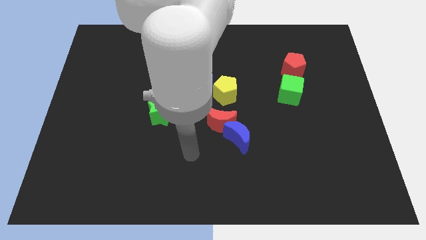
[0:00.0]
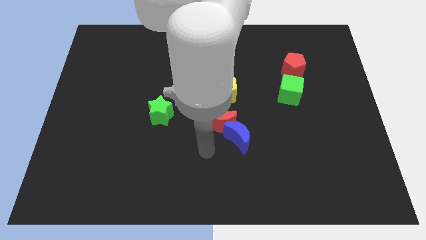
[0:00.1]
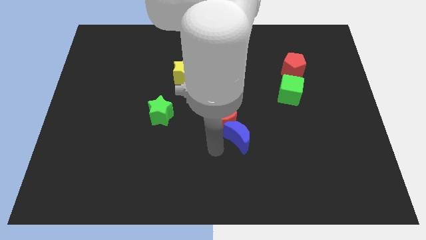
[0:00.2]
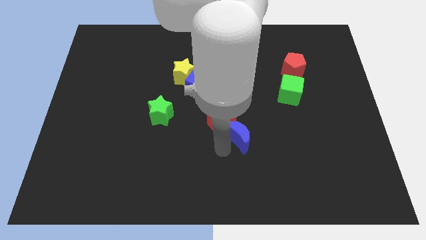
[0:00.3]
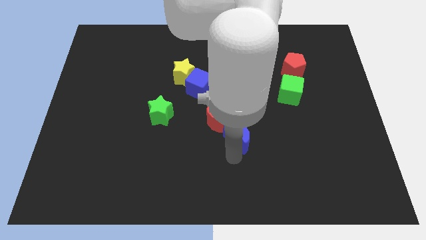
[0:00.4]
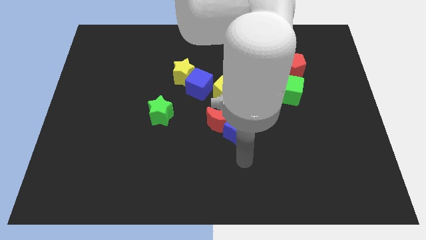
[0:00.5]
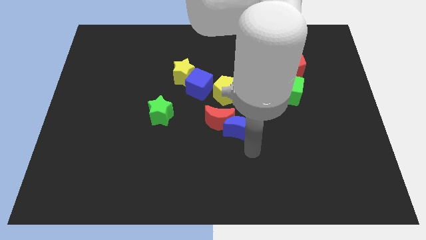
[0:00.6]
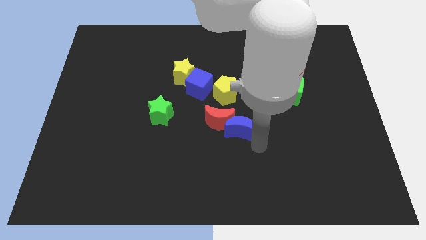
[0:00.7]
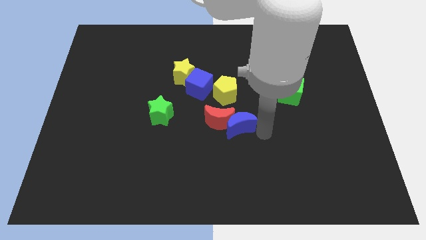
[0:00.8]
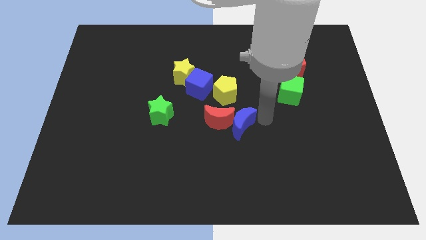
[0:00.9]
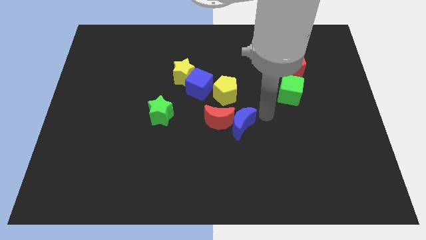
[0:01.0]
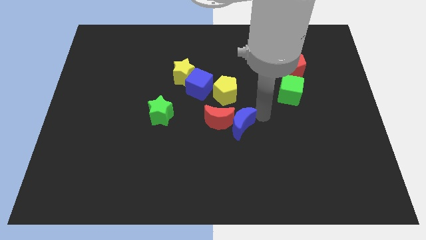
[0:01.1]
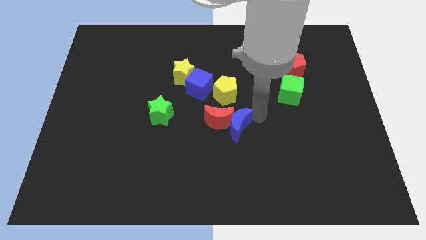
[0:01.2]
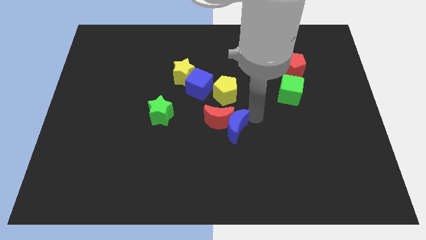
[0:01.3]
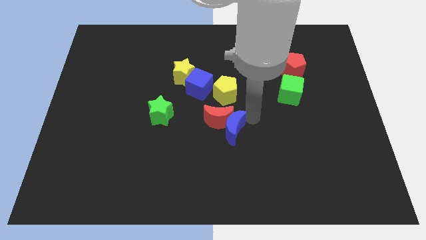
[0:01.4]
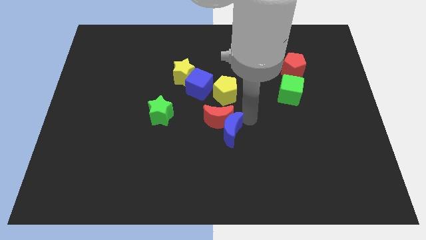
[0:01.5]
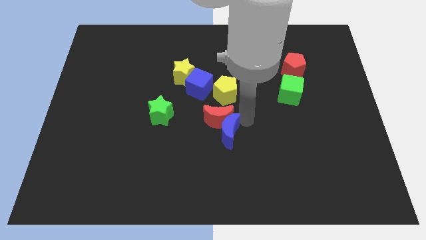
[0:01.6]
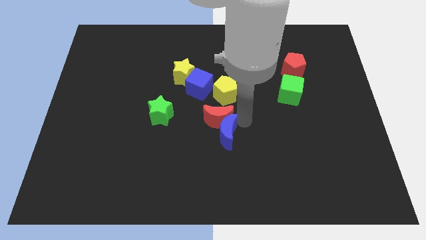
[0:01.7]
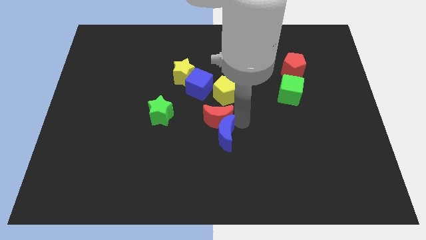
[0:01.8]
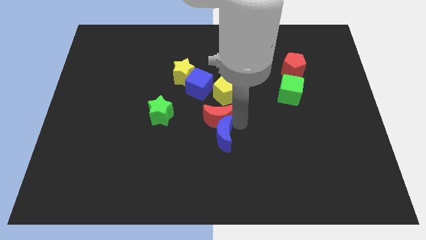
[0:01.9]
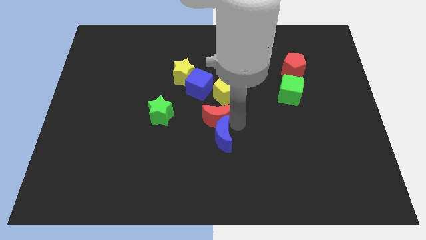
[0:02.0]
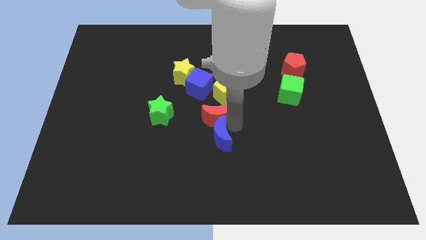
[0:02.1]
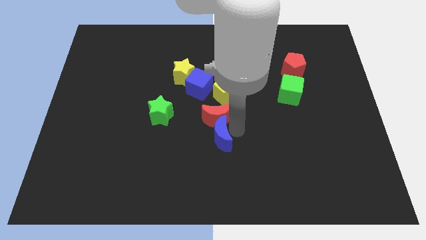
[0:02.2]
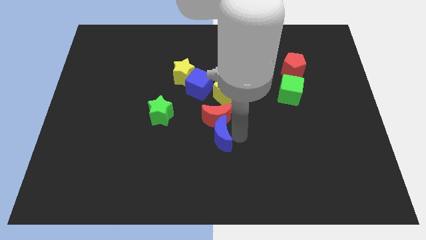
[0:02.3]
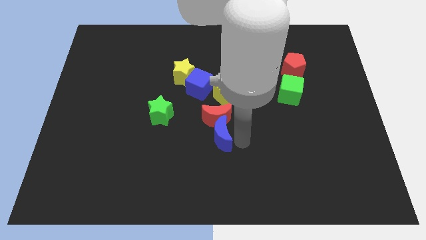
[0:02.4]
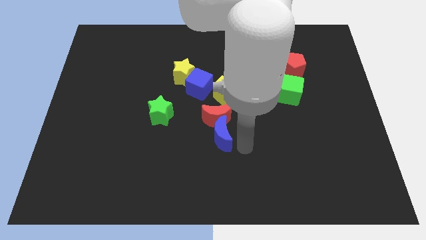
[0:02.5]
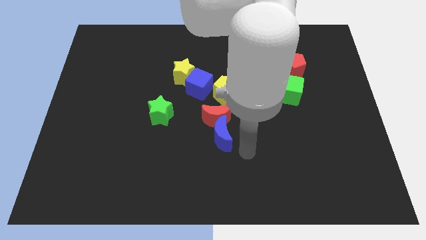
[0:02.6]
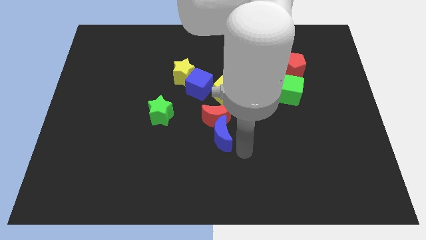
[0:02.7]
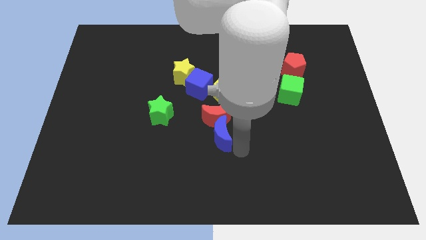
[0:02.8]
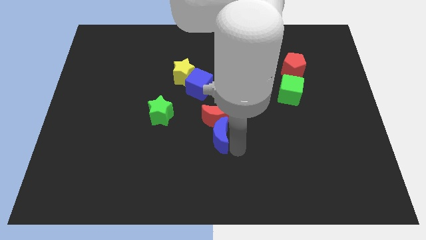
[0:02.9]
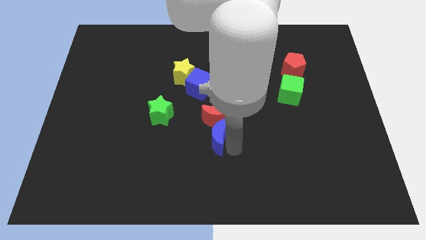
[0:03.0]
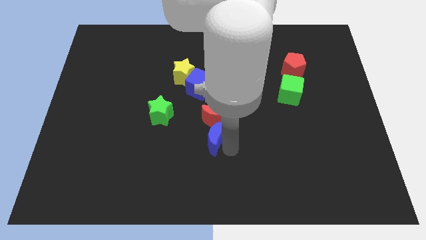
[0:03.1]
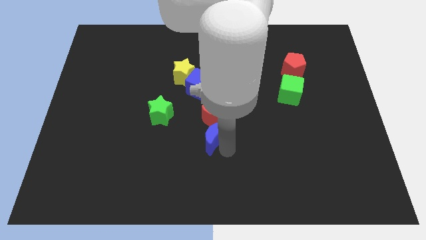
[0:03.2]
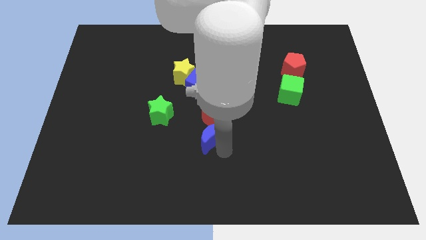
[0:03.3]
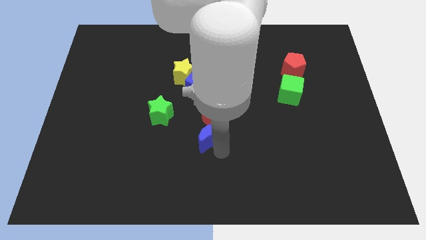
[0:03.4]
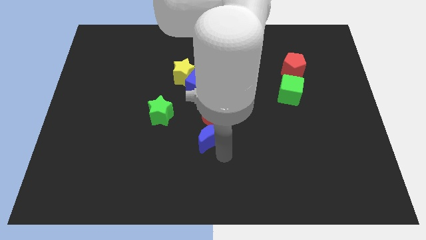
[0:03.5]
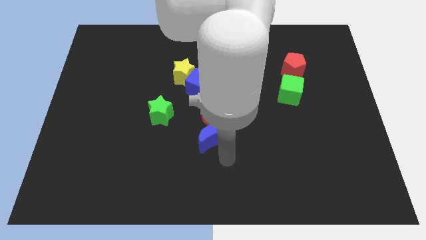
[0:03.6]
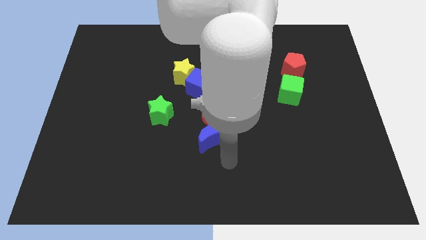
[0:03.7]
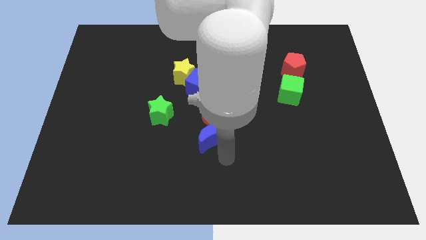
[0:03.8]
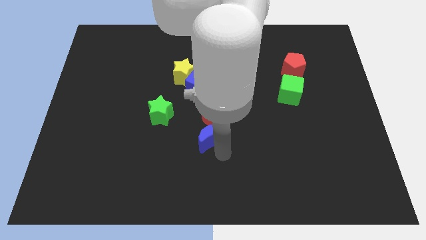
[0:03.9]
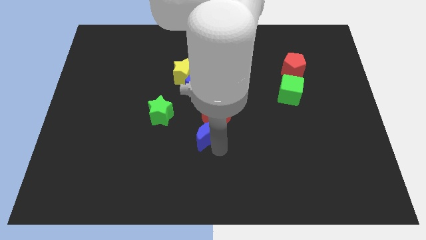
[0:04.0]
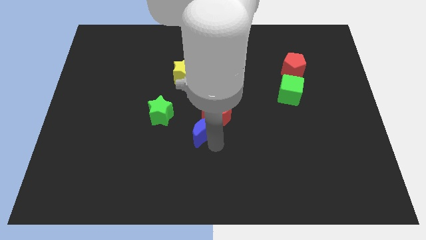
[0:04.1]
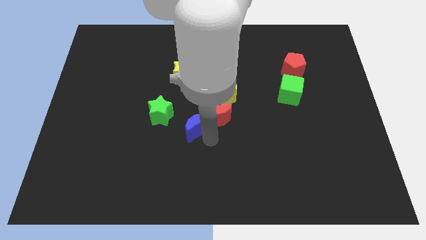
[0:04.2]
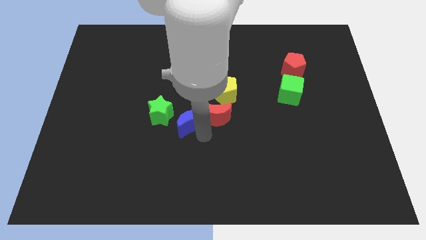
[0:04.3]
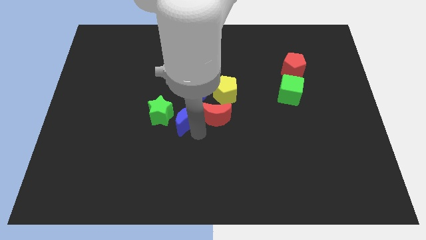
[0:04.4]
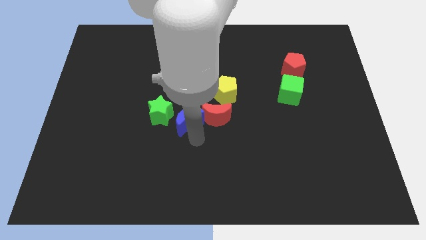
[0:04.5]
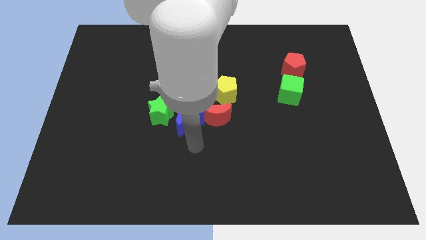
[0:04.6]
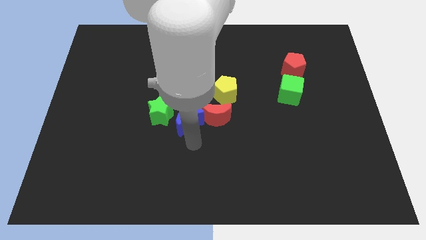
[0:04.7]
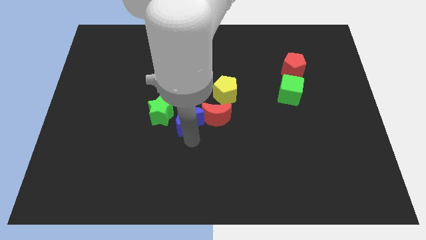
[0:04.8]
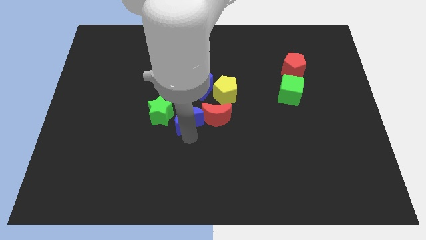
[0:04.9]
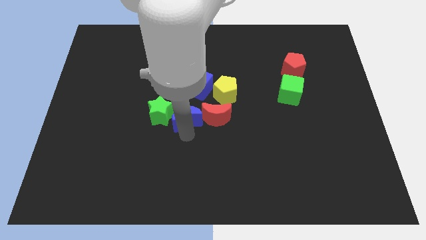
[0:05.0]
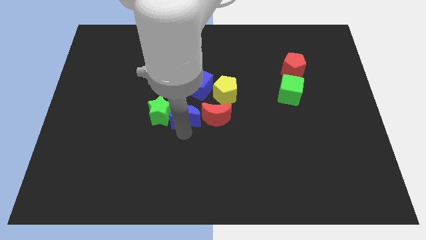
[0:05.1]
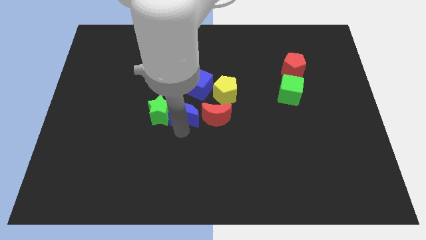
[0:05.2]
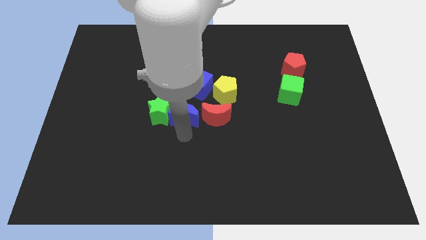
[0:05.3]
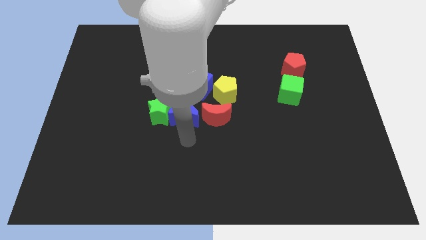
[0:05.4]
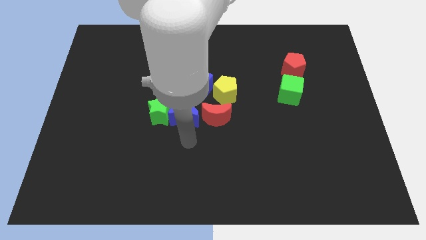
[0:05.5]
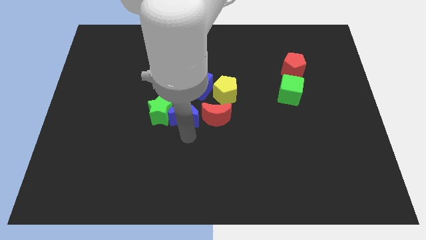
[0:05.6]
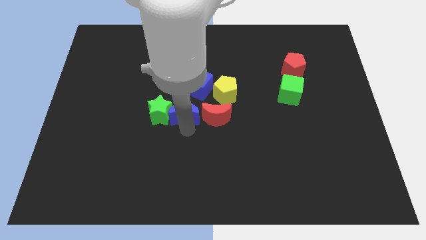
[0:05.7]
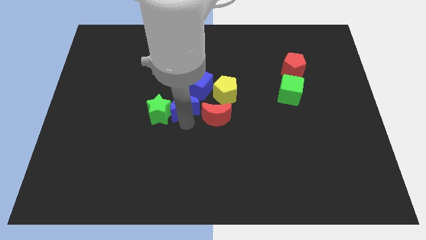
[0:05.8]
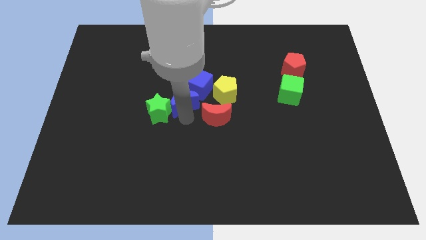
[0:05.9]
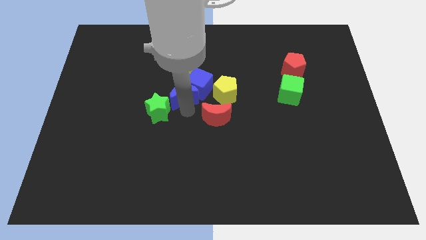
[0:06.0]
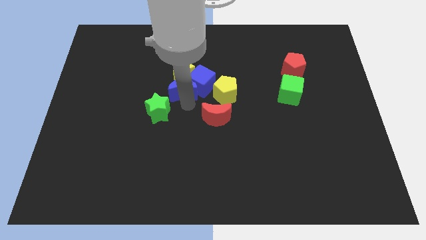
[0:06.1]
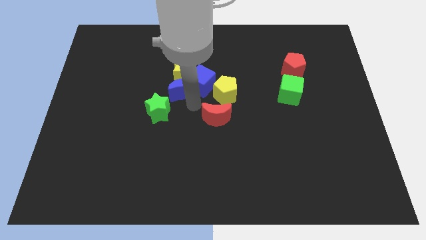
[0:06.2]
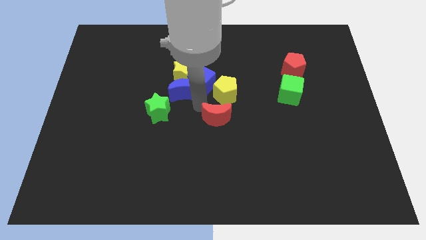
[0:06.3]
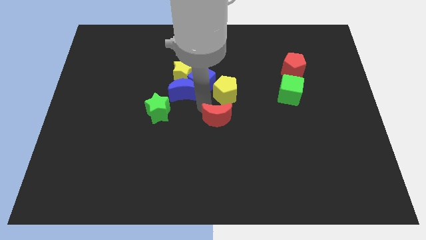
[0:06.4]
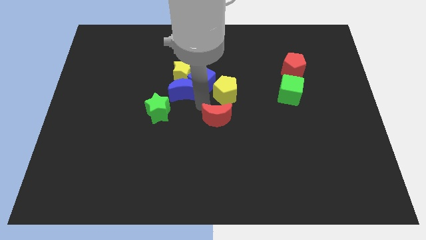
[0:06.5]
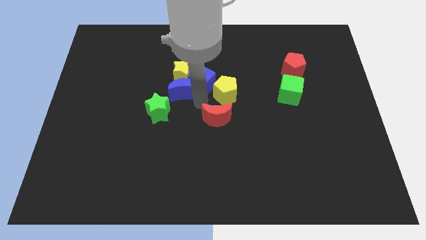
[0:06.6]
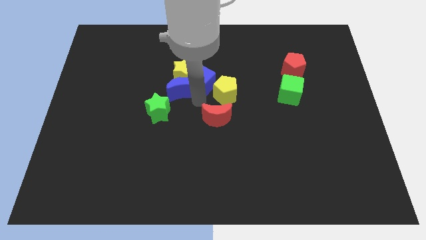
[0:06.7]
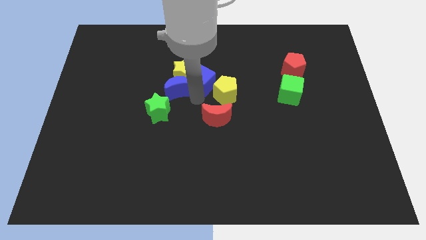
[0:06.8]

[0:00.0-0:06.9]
slide the blue moon diagonally up and left

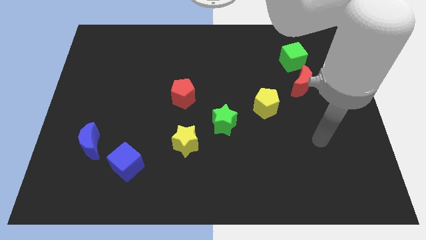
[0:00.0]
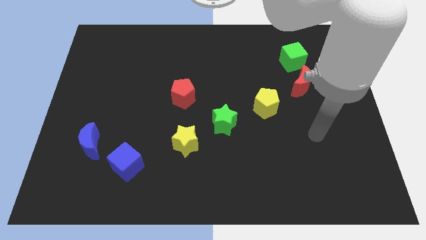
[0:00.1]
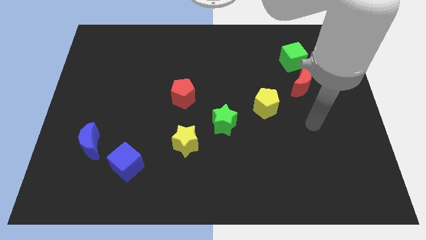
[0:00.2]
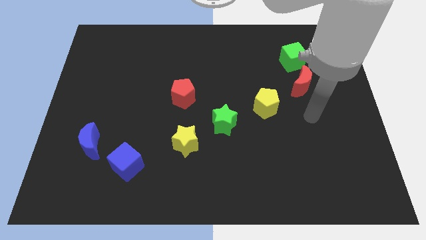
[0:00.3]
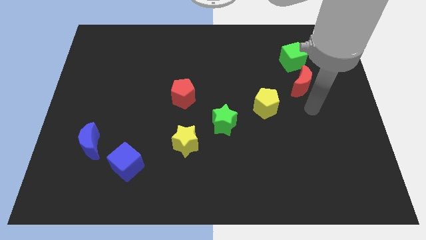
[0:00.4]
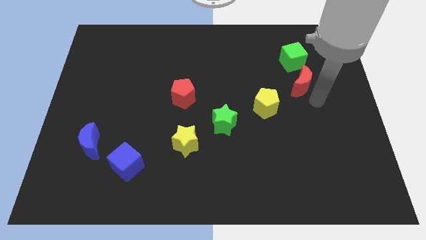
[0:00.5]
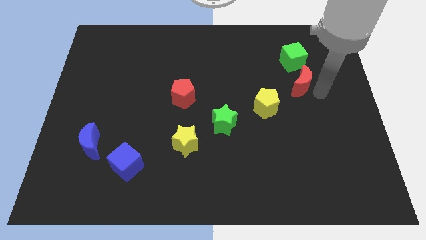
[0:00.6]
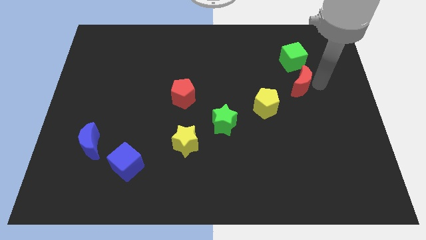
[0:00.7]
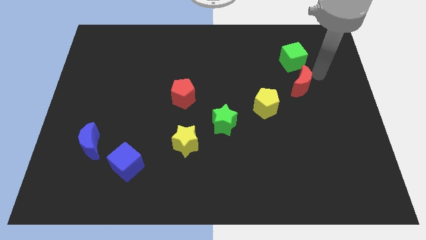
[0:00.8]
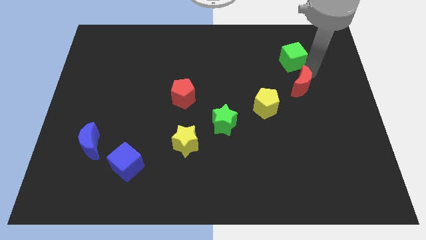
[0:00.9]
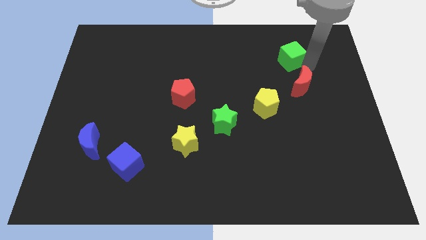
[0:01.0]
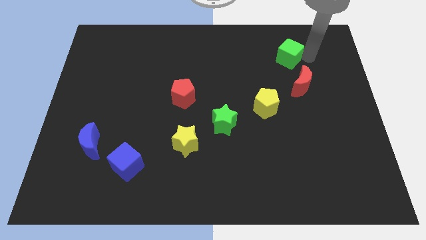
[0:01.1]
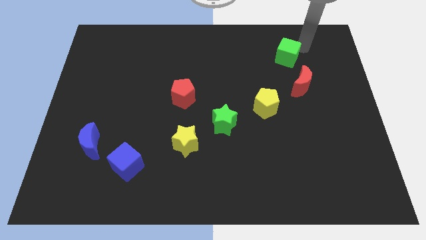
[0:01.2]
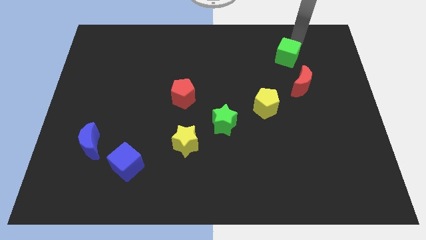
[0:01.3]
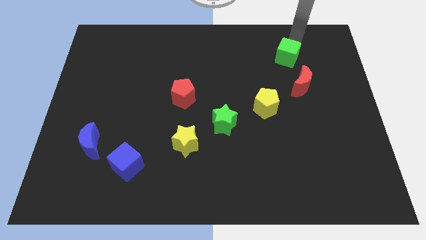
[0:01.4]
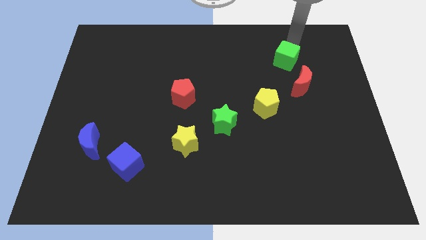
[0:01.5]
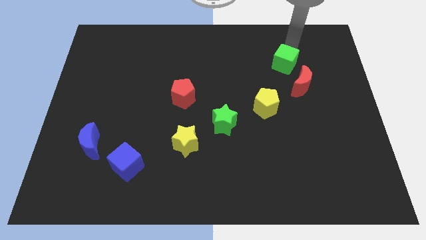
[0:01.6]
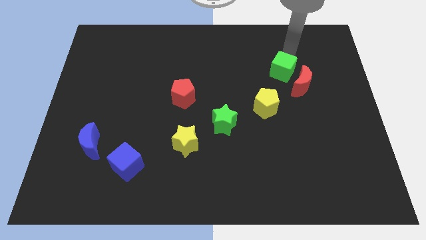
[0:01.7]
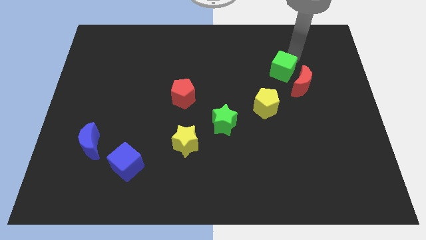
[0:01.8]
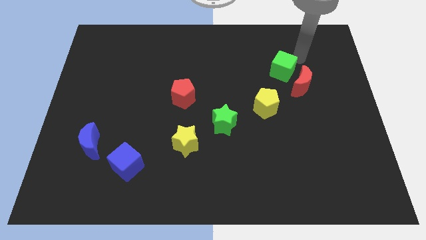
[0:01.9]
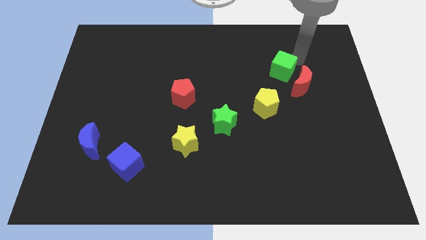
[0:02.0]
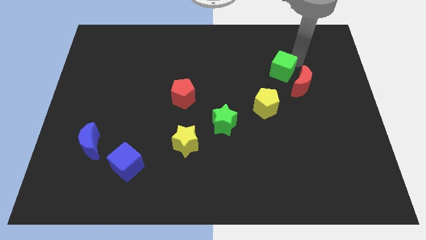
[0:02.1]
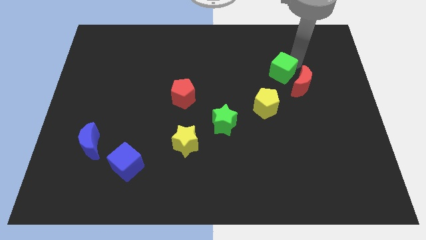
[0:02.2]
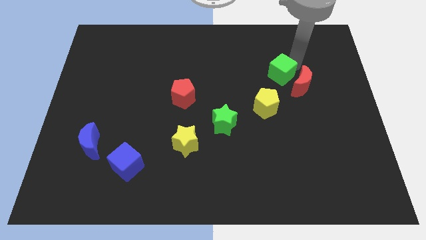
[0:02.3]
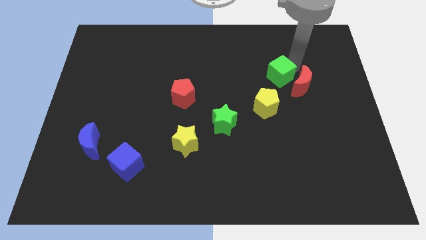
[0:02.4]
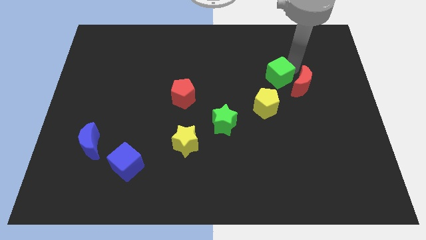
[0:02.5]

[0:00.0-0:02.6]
slightly slide the green cube down and to the left
